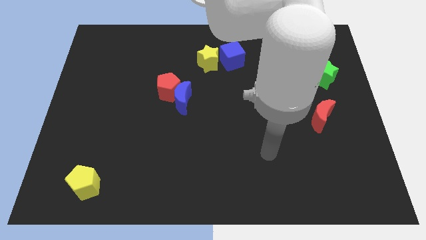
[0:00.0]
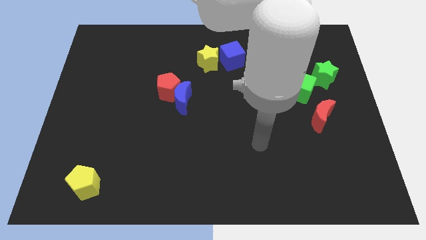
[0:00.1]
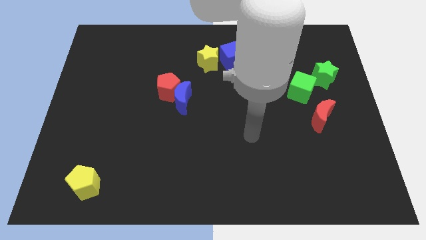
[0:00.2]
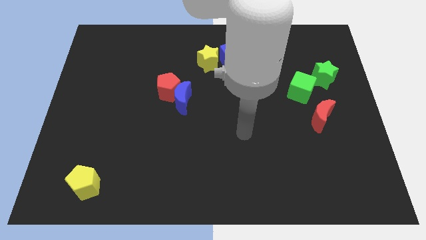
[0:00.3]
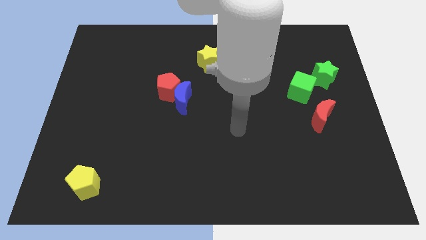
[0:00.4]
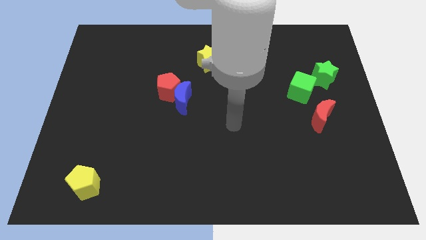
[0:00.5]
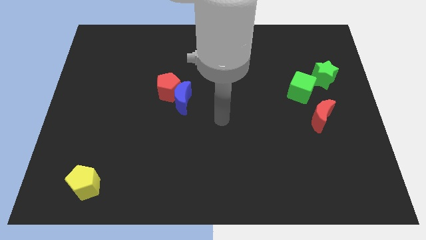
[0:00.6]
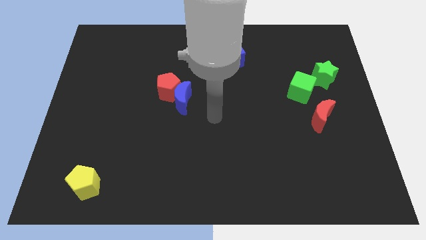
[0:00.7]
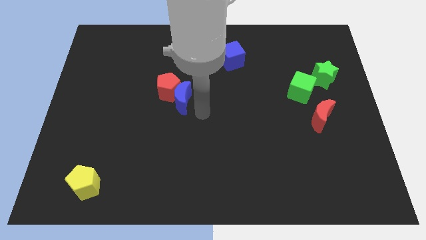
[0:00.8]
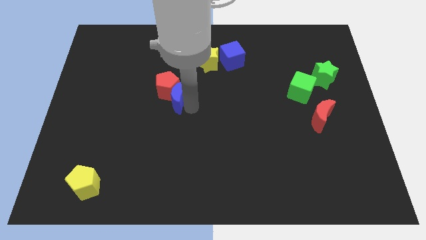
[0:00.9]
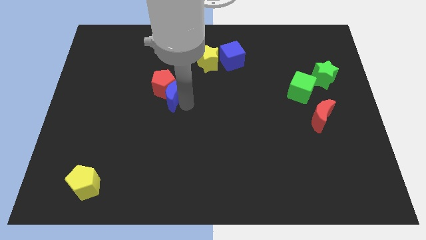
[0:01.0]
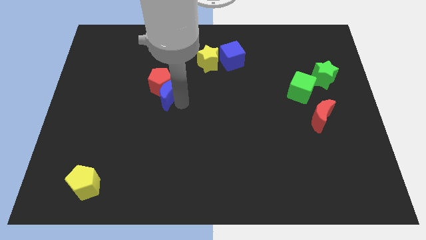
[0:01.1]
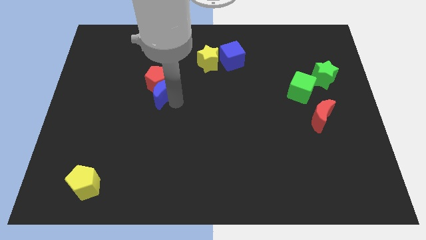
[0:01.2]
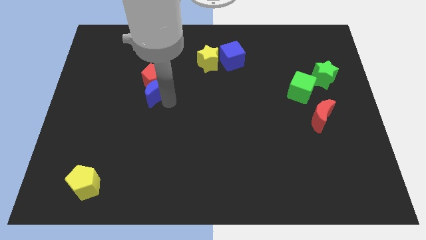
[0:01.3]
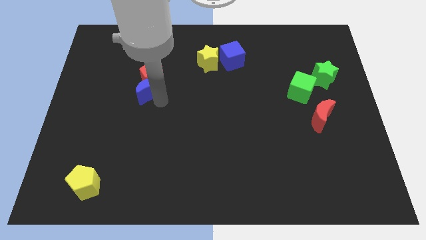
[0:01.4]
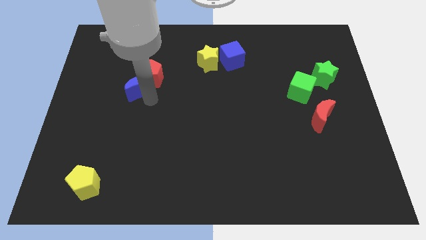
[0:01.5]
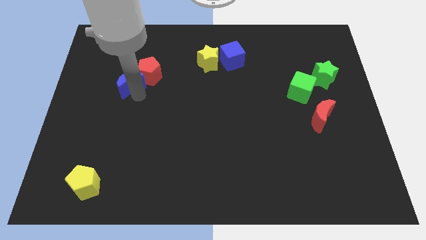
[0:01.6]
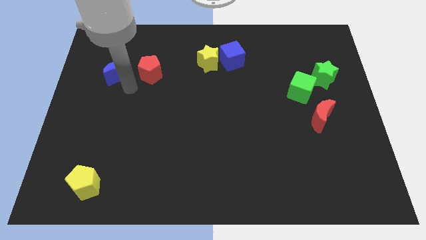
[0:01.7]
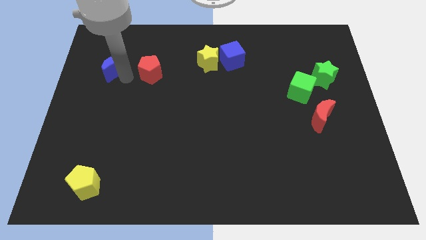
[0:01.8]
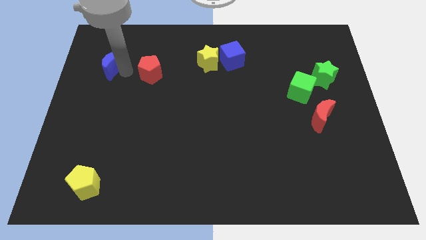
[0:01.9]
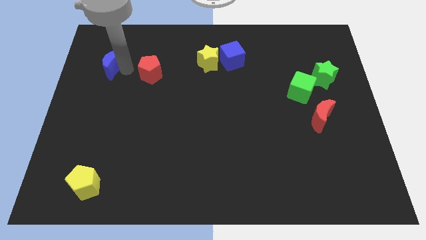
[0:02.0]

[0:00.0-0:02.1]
pull the red pentagon apart from the blue moon

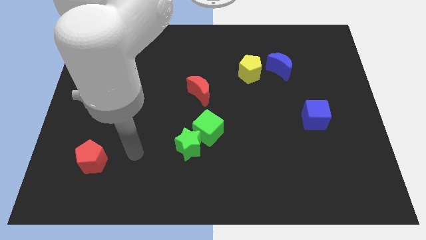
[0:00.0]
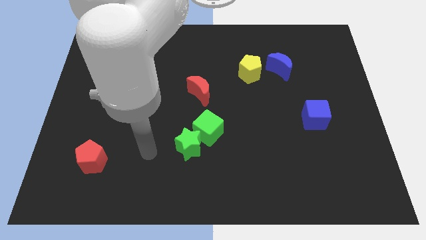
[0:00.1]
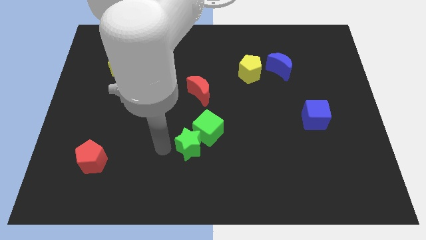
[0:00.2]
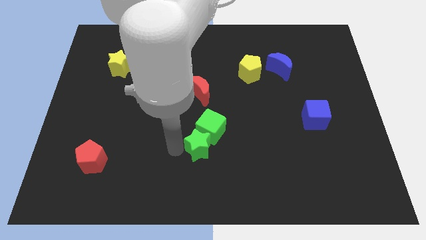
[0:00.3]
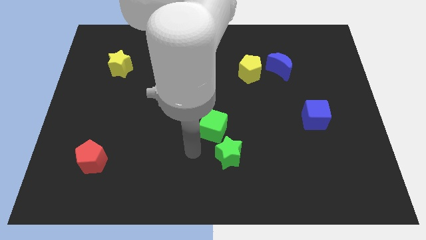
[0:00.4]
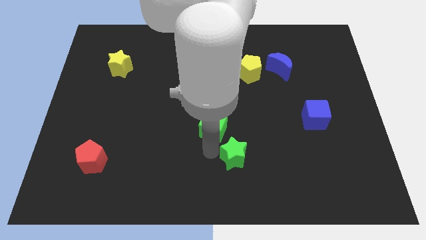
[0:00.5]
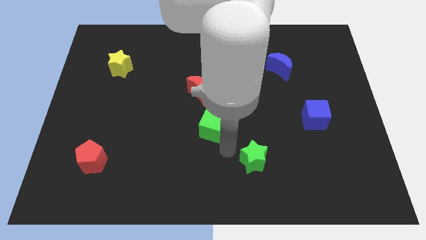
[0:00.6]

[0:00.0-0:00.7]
pull the green cube apart from the green star

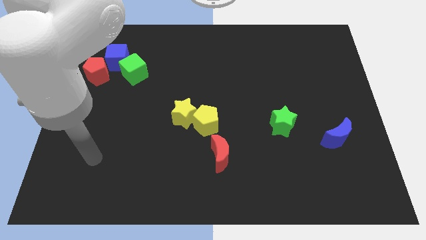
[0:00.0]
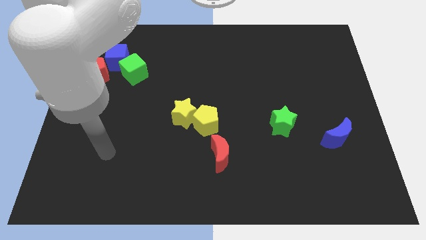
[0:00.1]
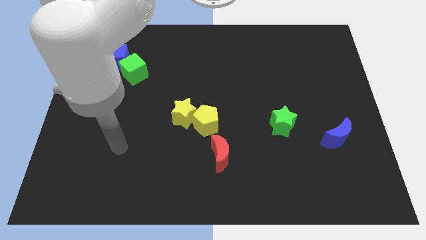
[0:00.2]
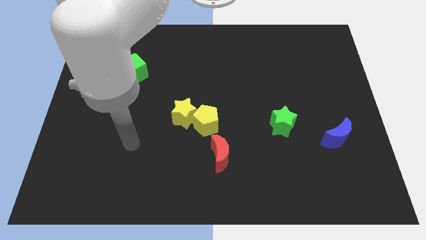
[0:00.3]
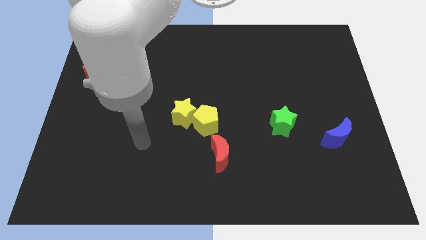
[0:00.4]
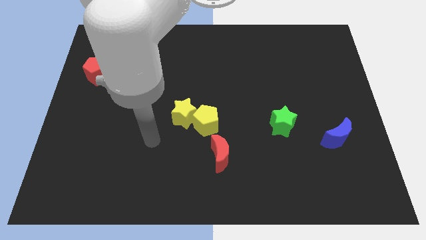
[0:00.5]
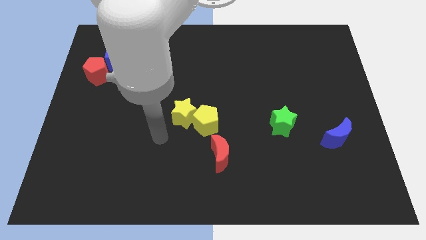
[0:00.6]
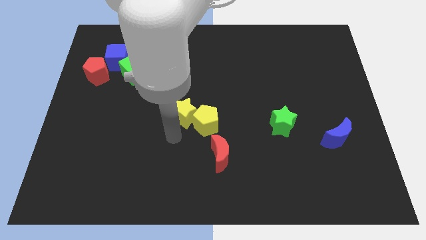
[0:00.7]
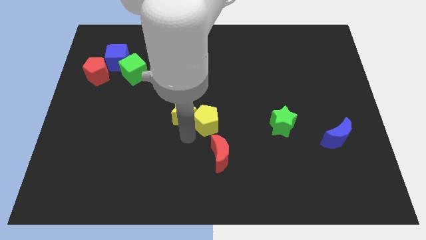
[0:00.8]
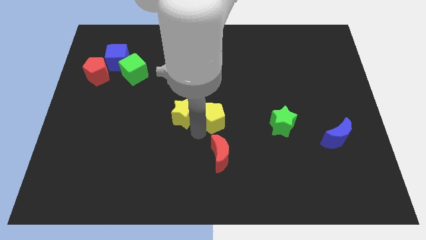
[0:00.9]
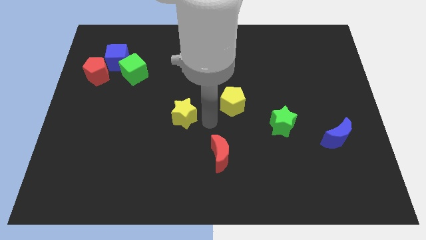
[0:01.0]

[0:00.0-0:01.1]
pull the yellow star apart from the yellow pentagon

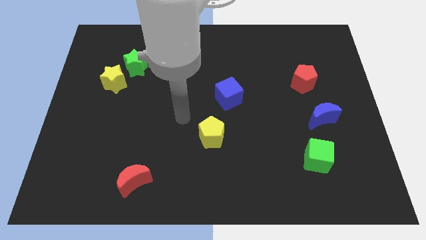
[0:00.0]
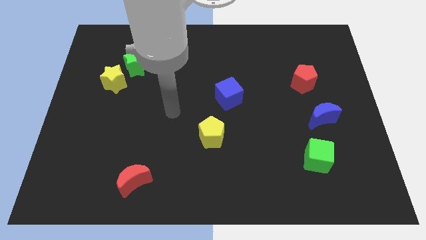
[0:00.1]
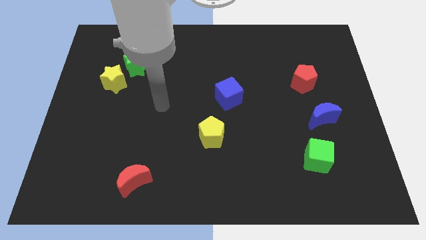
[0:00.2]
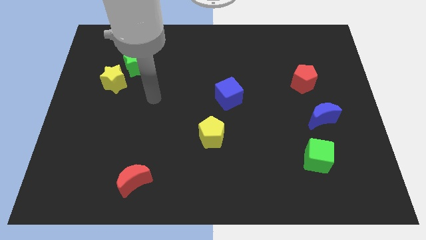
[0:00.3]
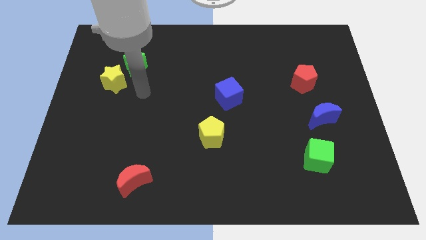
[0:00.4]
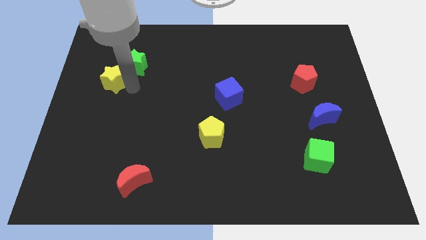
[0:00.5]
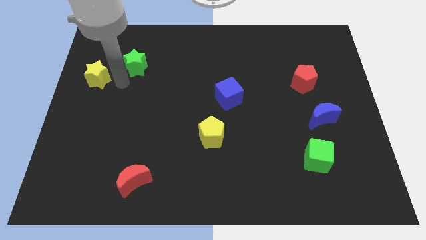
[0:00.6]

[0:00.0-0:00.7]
separate the green star from the yellow star

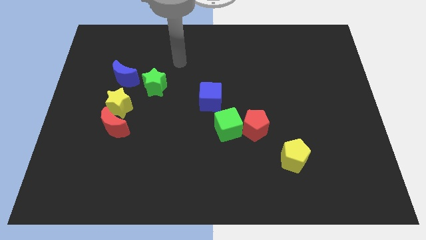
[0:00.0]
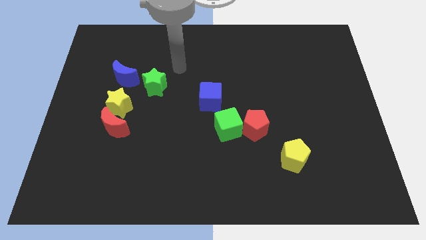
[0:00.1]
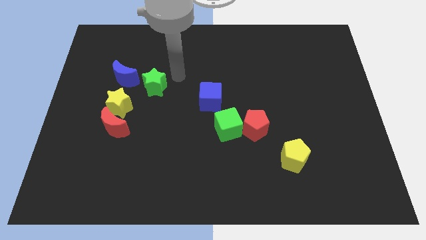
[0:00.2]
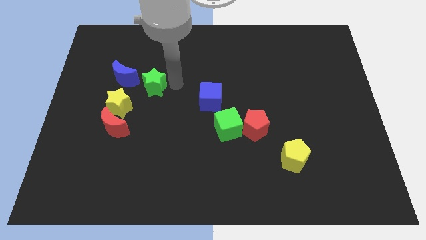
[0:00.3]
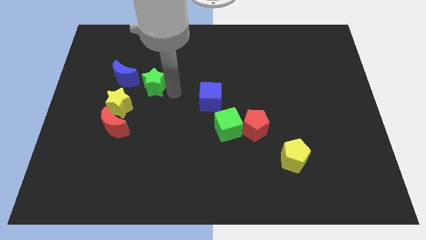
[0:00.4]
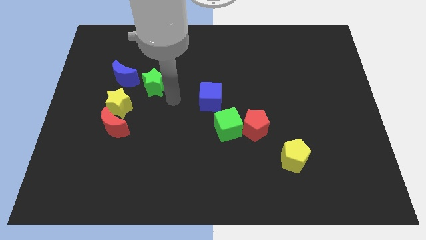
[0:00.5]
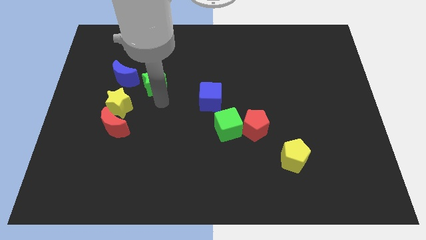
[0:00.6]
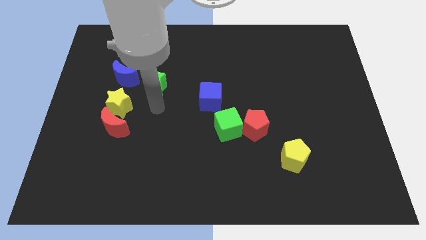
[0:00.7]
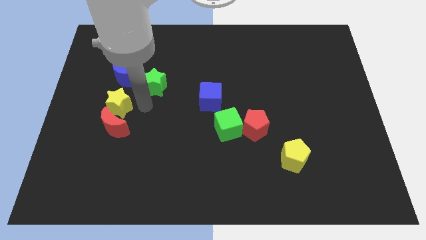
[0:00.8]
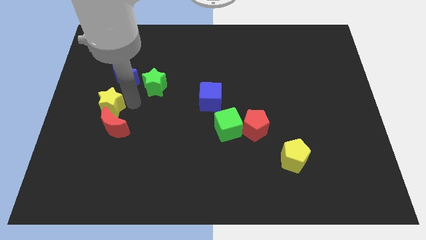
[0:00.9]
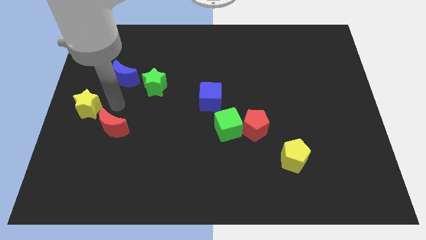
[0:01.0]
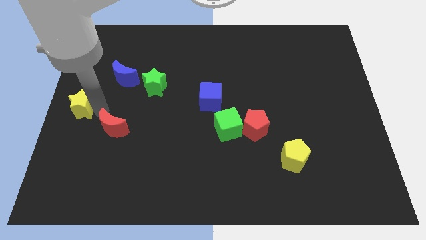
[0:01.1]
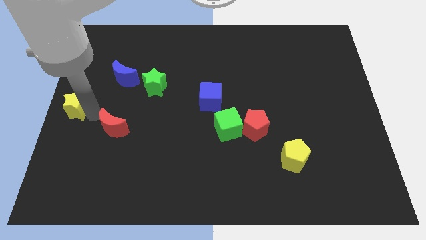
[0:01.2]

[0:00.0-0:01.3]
separate the red moon from the yellow star

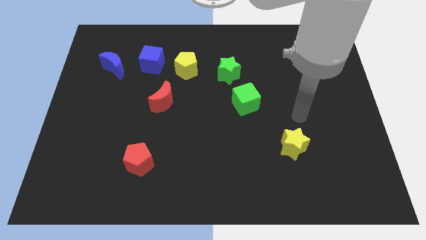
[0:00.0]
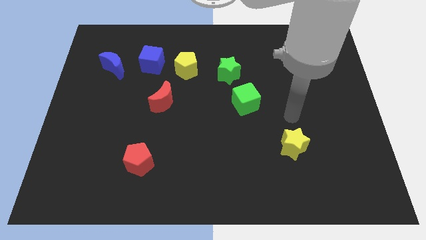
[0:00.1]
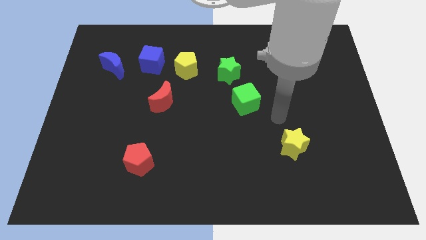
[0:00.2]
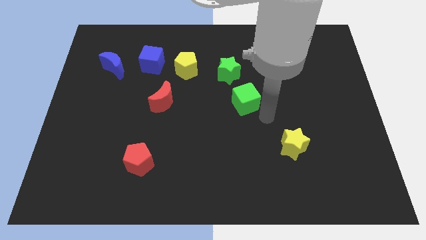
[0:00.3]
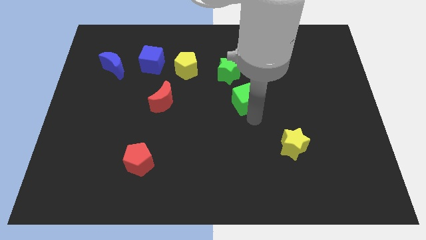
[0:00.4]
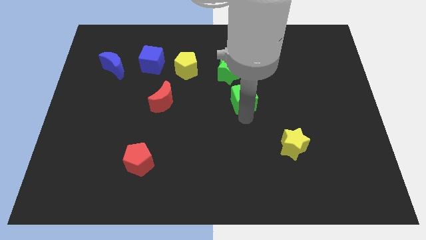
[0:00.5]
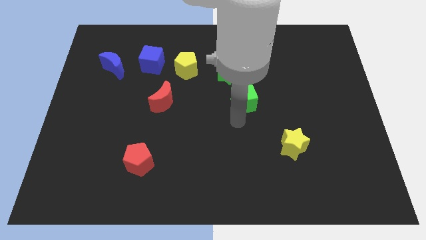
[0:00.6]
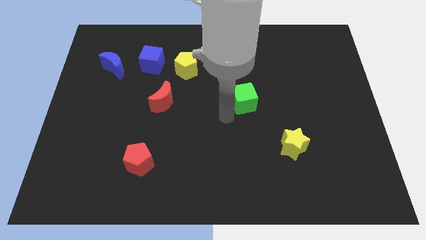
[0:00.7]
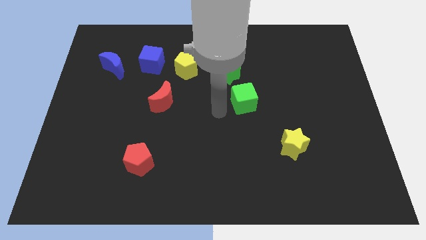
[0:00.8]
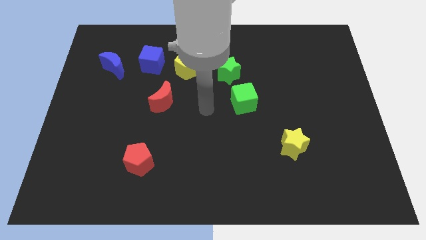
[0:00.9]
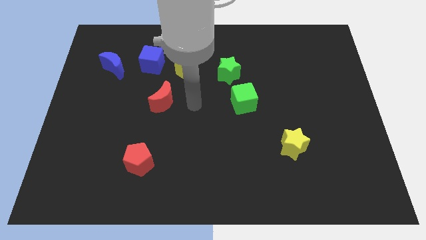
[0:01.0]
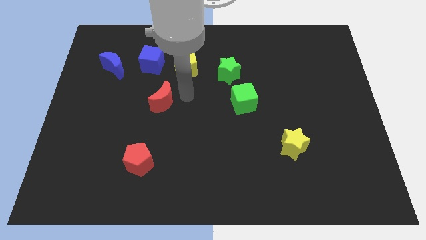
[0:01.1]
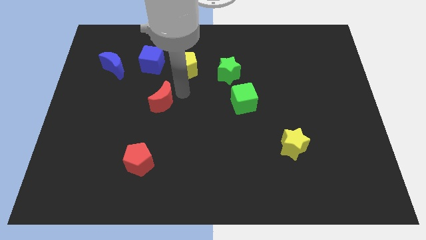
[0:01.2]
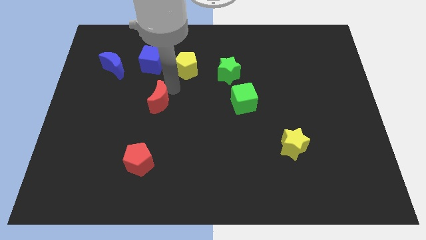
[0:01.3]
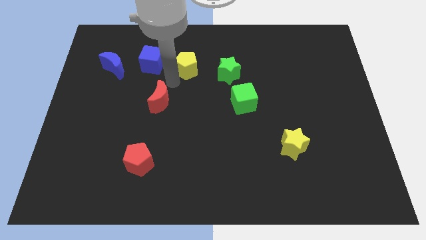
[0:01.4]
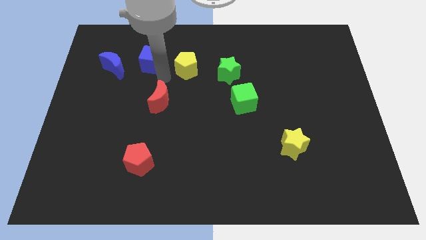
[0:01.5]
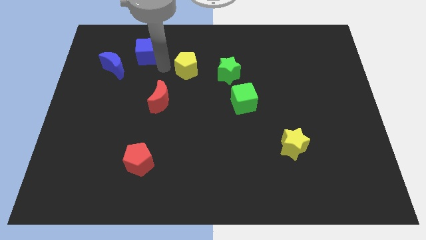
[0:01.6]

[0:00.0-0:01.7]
separate the yellow pentagon from the blue cube

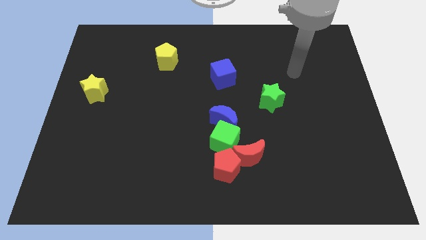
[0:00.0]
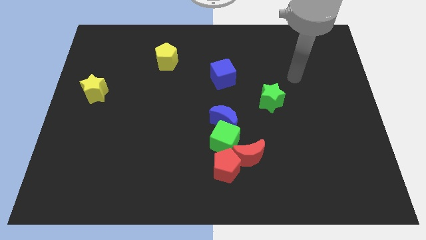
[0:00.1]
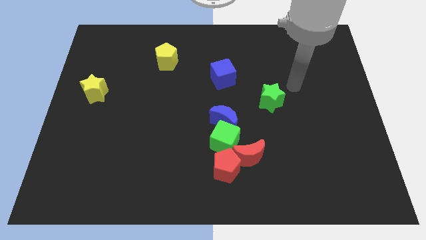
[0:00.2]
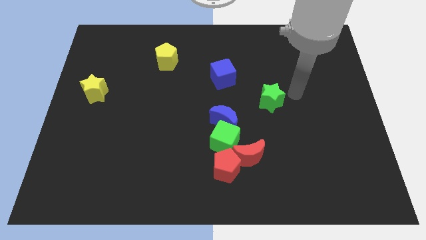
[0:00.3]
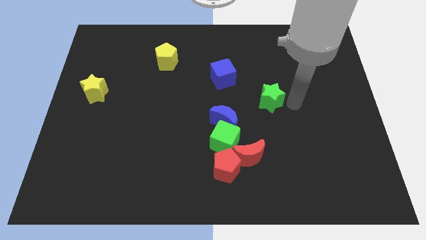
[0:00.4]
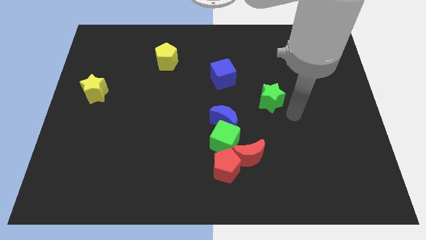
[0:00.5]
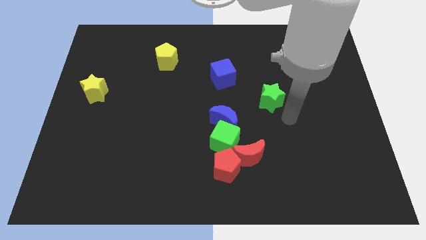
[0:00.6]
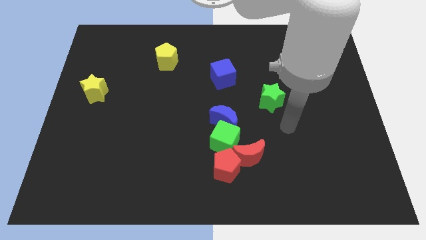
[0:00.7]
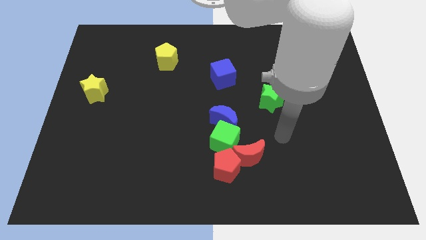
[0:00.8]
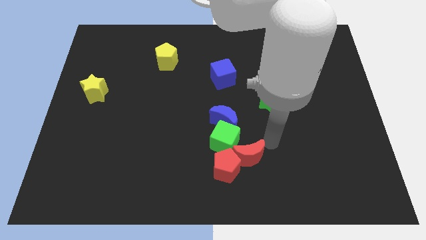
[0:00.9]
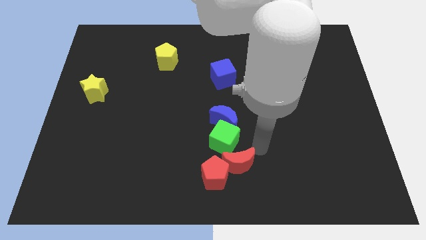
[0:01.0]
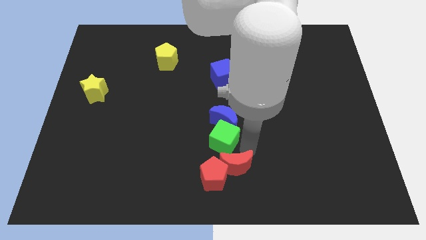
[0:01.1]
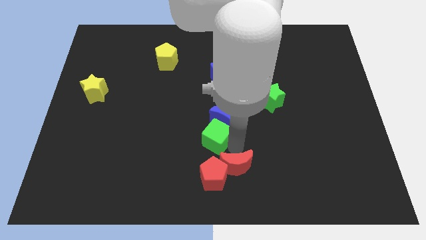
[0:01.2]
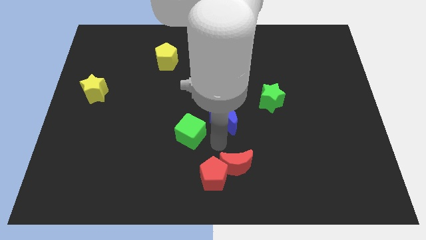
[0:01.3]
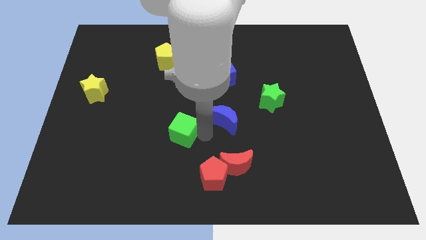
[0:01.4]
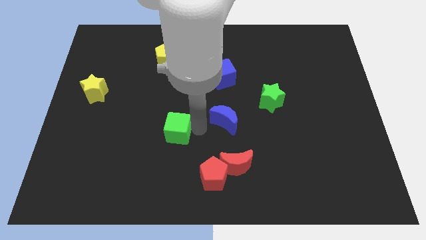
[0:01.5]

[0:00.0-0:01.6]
separate the blue moon from the green cube
